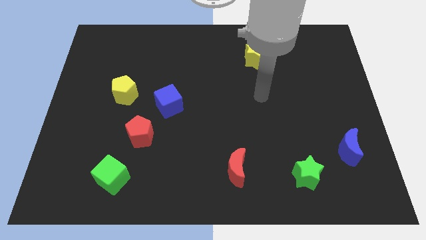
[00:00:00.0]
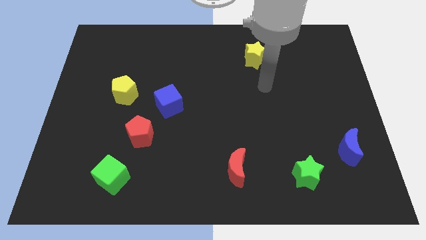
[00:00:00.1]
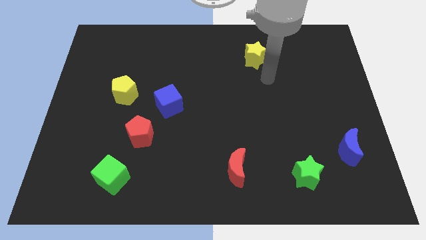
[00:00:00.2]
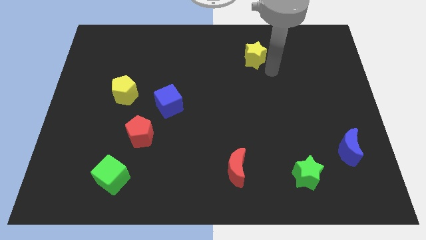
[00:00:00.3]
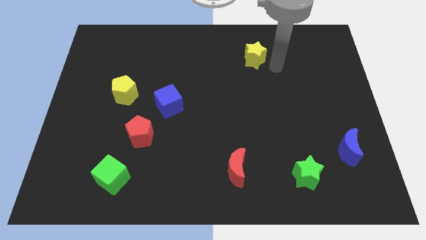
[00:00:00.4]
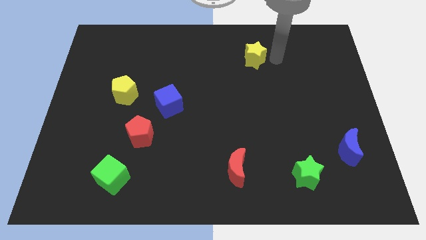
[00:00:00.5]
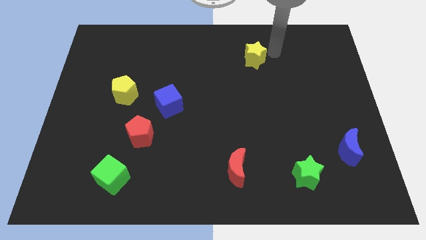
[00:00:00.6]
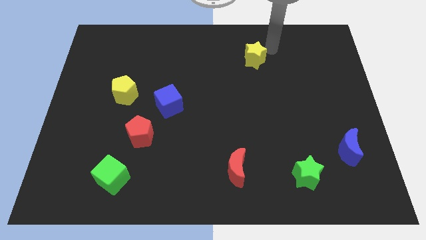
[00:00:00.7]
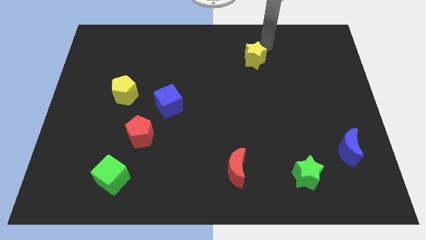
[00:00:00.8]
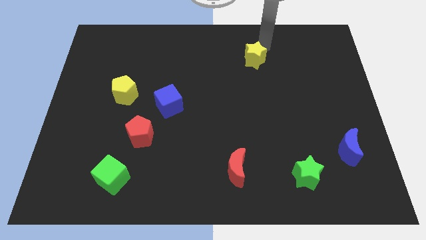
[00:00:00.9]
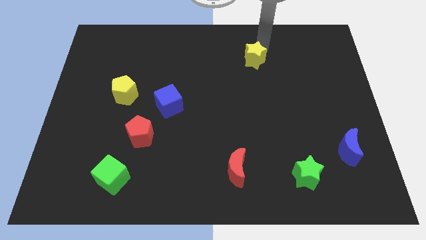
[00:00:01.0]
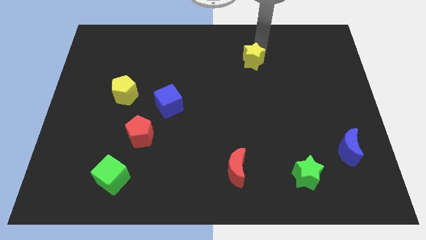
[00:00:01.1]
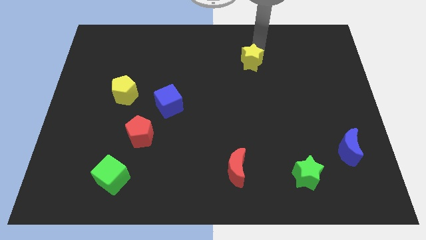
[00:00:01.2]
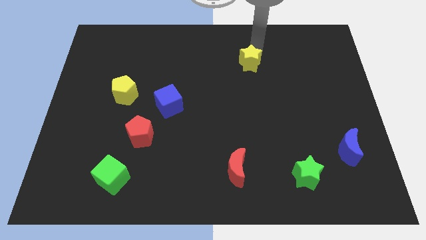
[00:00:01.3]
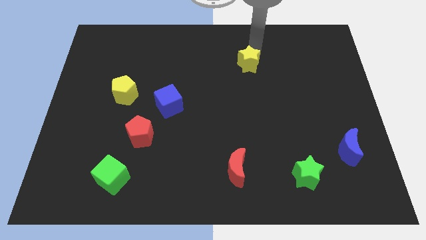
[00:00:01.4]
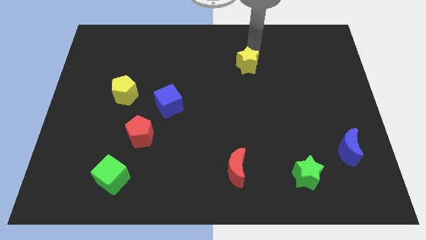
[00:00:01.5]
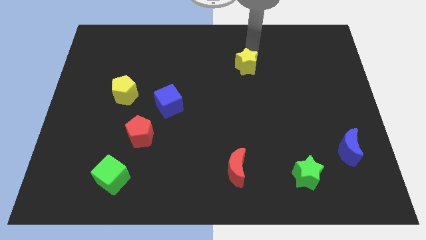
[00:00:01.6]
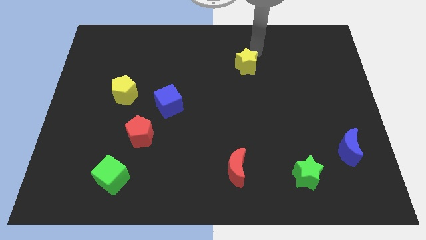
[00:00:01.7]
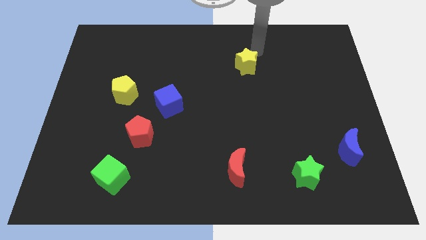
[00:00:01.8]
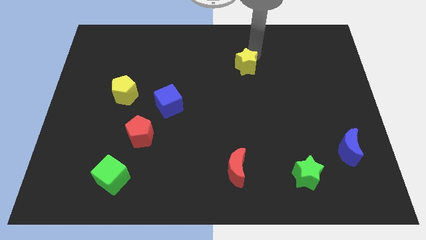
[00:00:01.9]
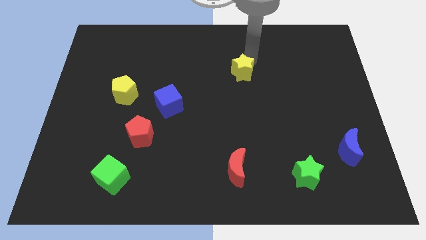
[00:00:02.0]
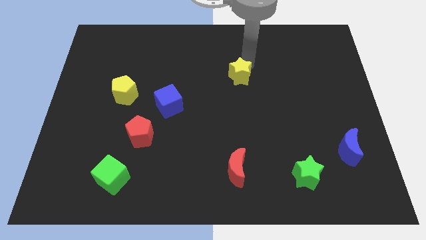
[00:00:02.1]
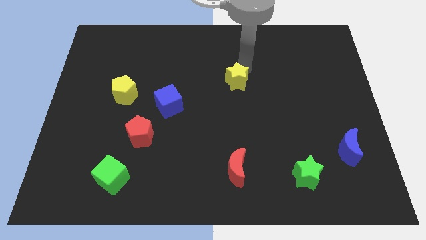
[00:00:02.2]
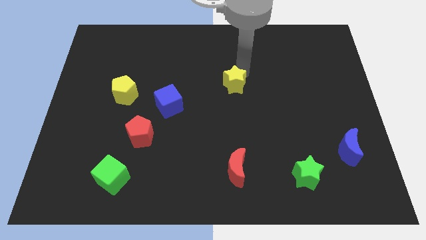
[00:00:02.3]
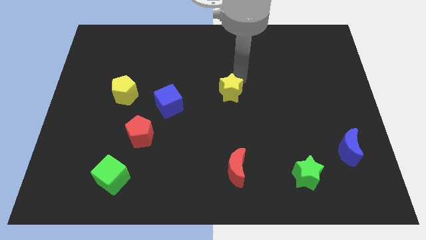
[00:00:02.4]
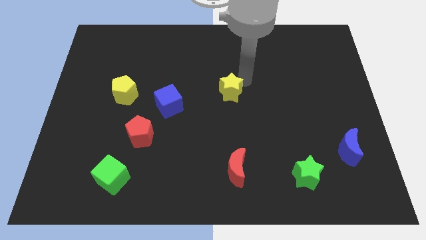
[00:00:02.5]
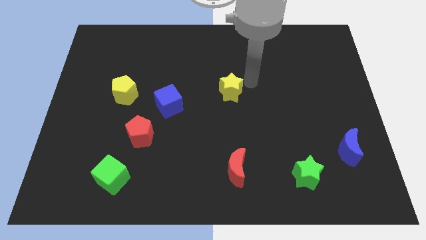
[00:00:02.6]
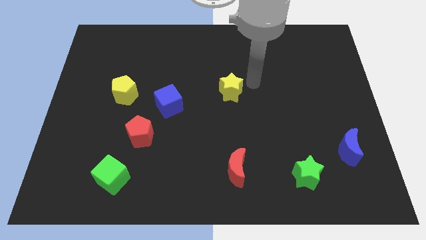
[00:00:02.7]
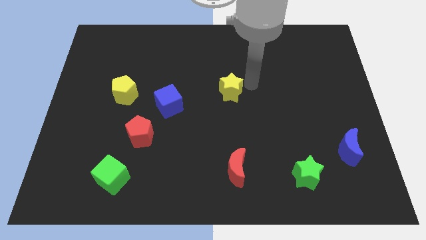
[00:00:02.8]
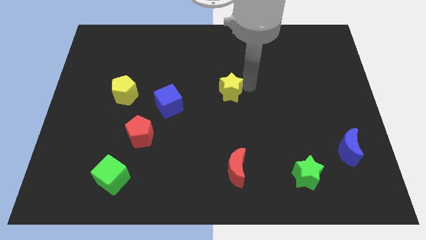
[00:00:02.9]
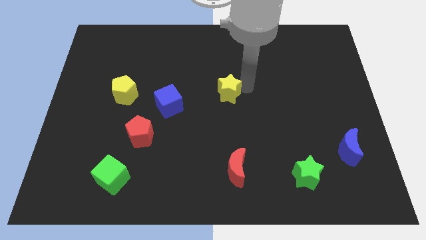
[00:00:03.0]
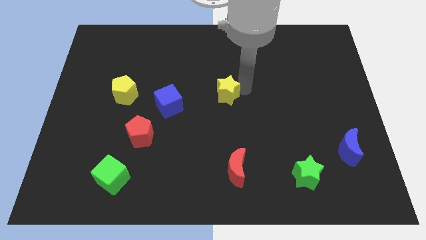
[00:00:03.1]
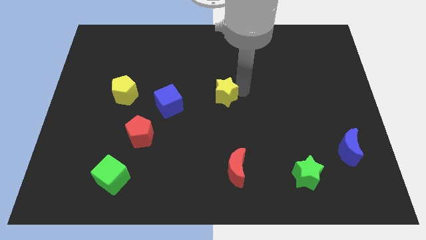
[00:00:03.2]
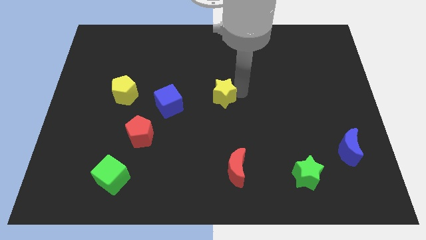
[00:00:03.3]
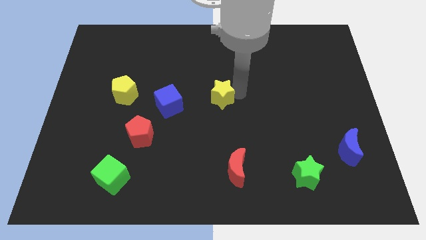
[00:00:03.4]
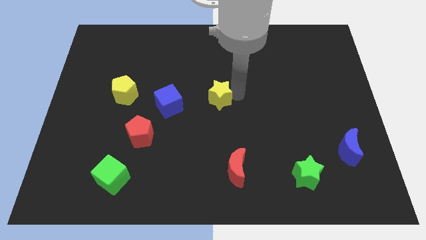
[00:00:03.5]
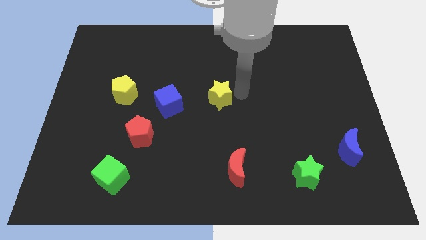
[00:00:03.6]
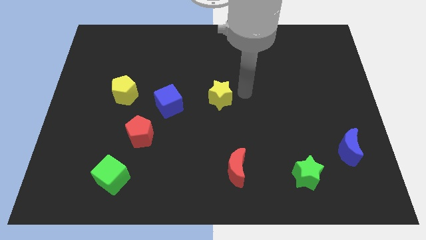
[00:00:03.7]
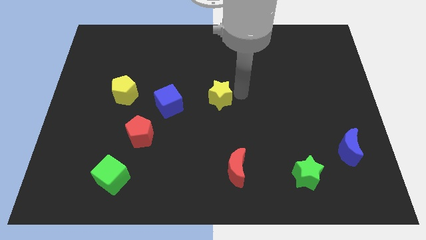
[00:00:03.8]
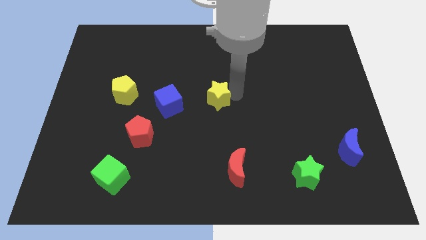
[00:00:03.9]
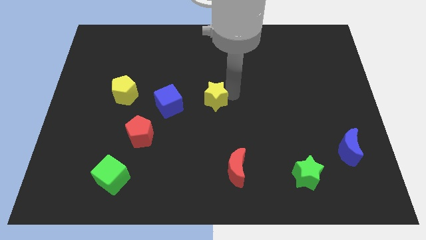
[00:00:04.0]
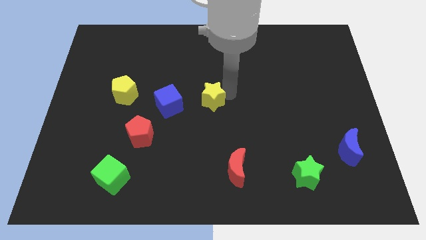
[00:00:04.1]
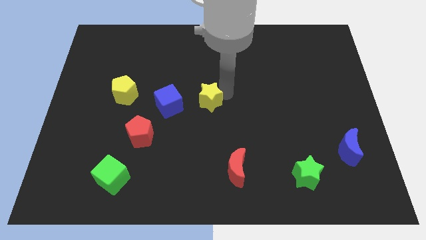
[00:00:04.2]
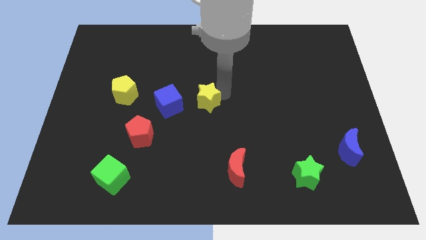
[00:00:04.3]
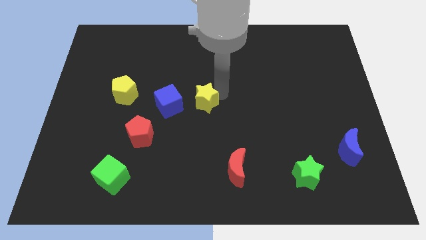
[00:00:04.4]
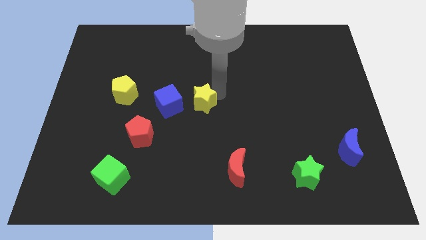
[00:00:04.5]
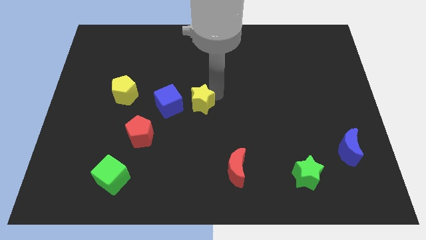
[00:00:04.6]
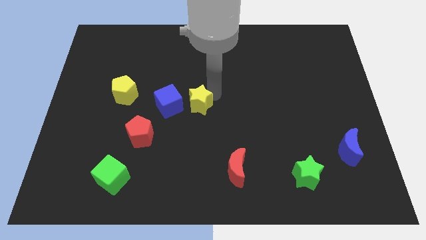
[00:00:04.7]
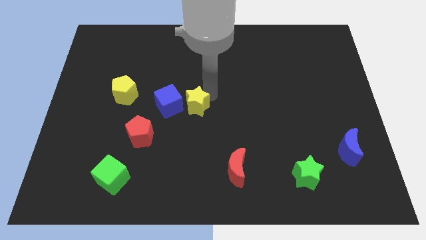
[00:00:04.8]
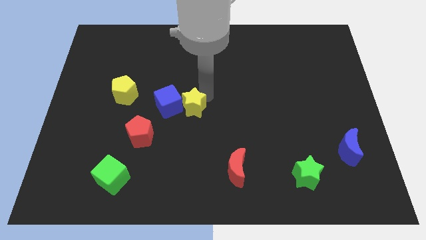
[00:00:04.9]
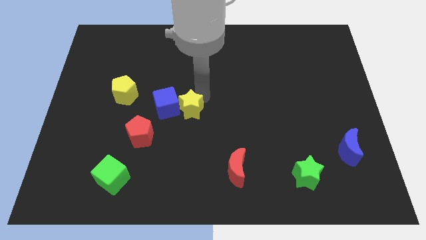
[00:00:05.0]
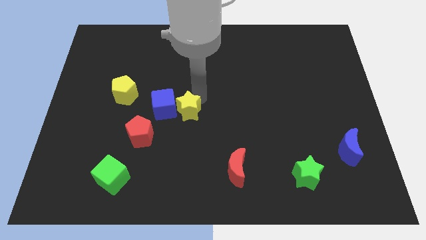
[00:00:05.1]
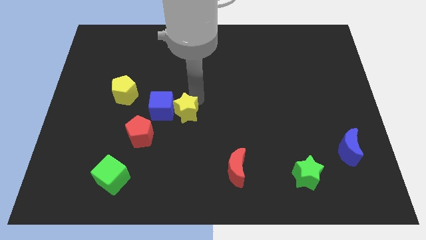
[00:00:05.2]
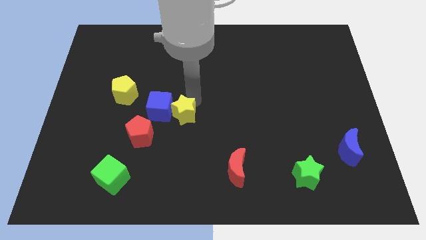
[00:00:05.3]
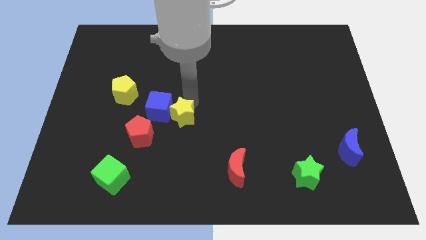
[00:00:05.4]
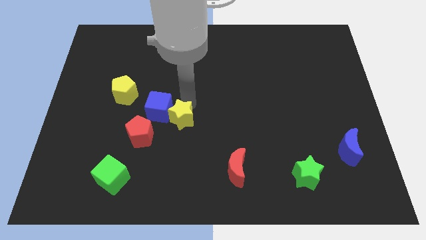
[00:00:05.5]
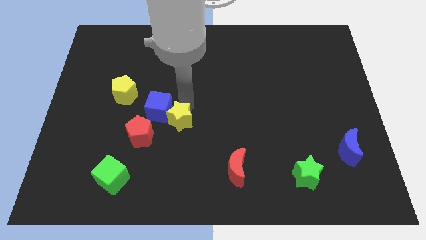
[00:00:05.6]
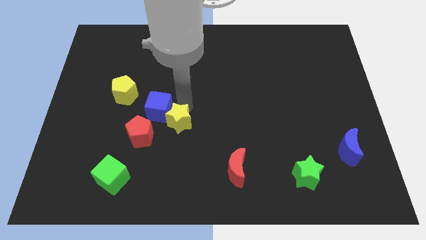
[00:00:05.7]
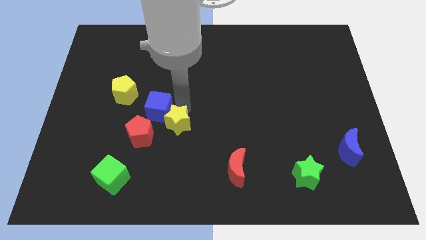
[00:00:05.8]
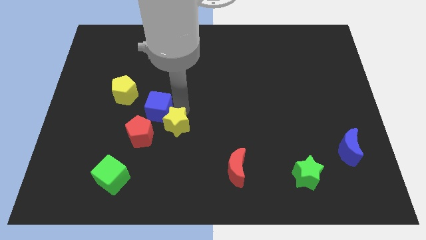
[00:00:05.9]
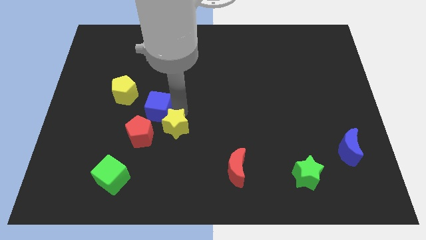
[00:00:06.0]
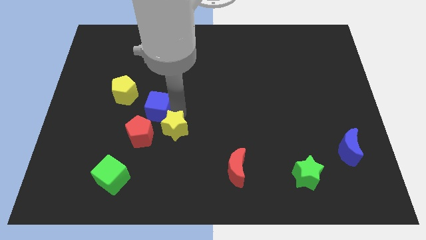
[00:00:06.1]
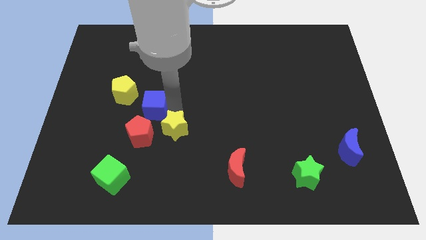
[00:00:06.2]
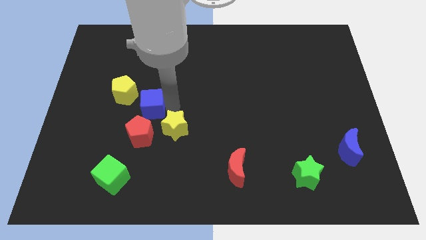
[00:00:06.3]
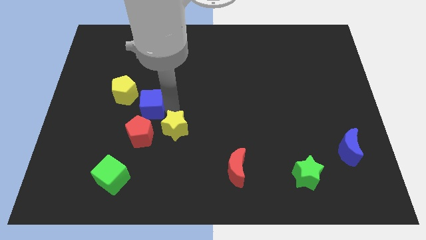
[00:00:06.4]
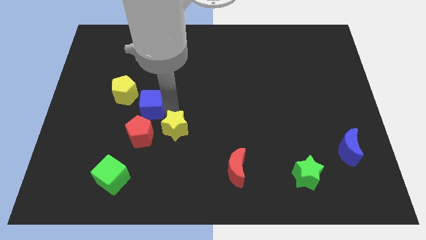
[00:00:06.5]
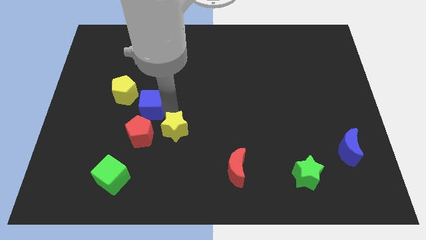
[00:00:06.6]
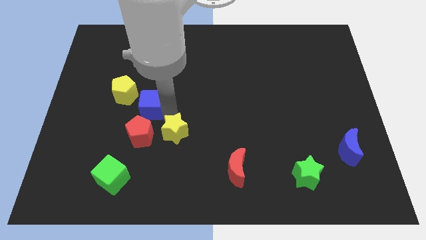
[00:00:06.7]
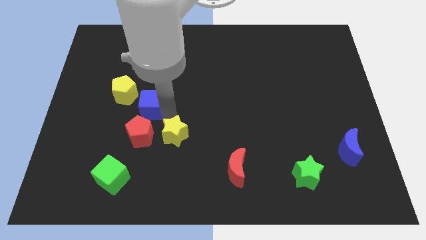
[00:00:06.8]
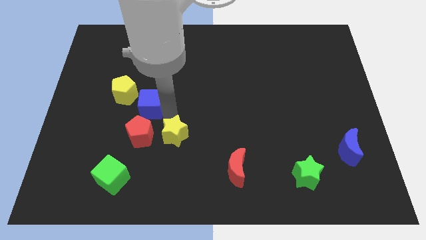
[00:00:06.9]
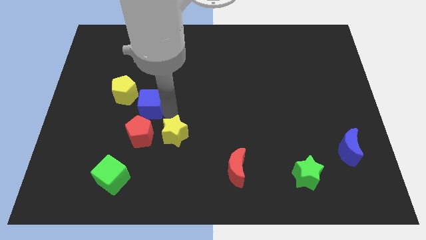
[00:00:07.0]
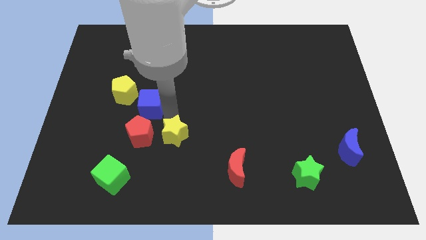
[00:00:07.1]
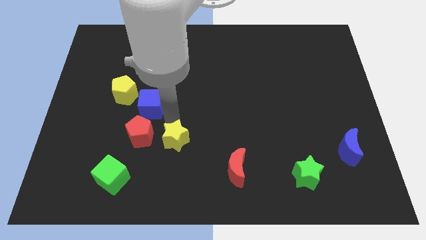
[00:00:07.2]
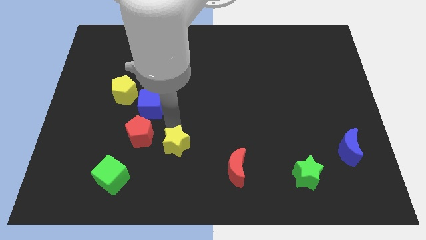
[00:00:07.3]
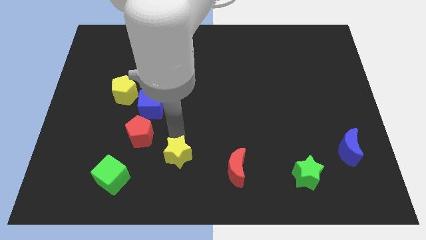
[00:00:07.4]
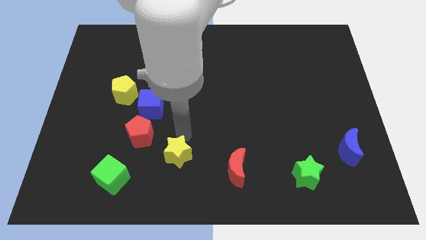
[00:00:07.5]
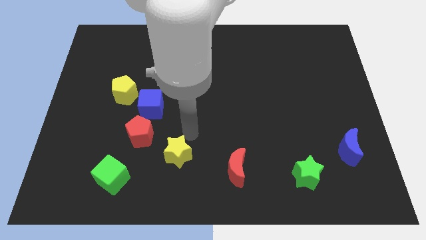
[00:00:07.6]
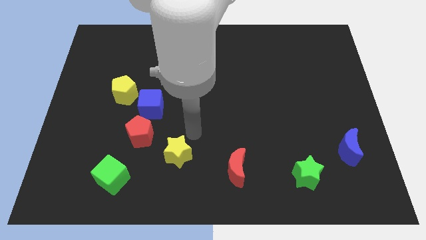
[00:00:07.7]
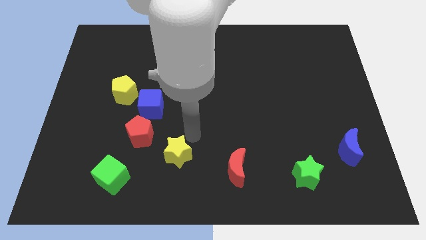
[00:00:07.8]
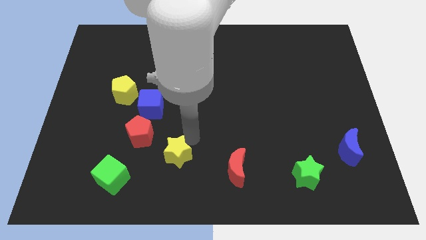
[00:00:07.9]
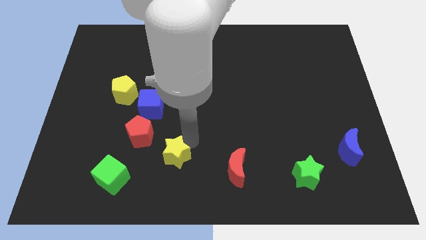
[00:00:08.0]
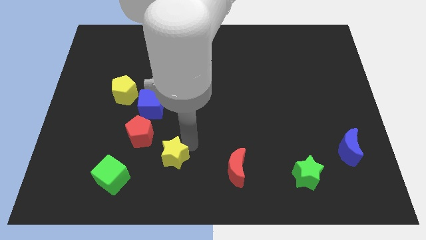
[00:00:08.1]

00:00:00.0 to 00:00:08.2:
move the yellow star to the right of the green cube
